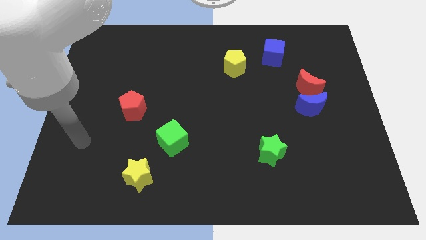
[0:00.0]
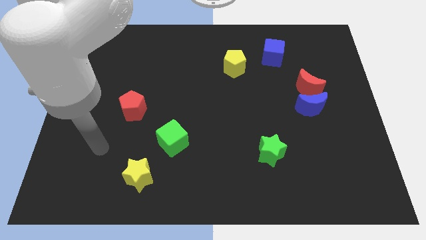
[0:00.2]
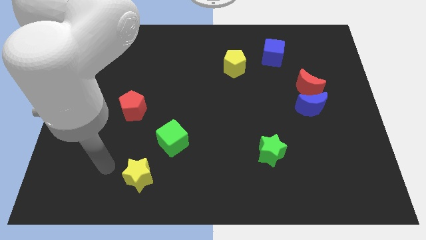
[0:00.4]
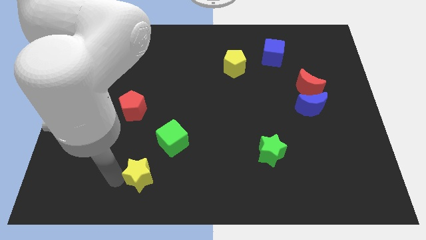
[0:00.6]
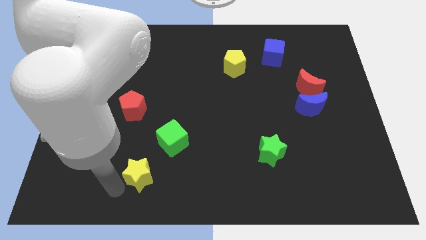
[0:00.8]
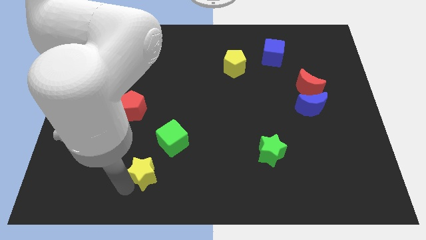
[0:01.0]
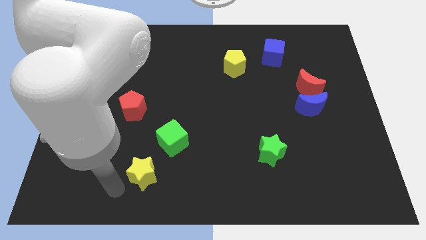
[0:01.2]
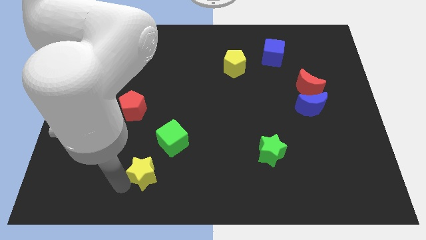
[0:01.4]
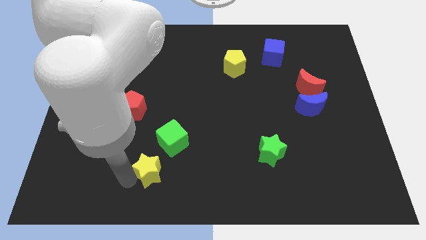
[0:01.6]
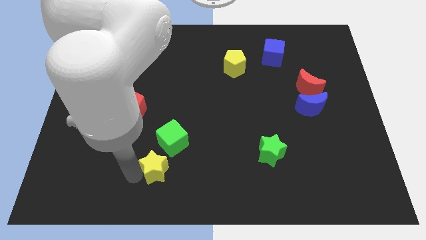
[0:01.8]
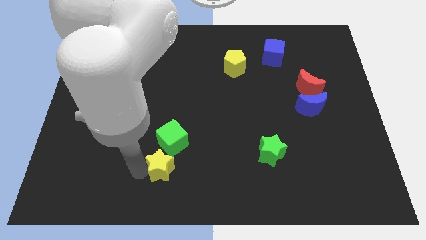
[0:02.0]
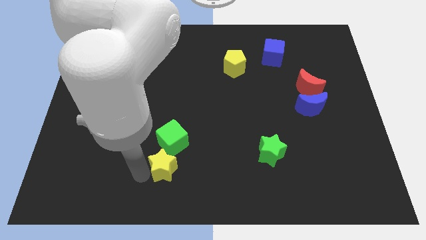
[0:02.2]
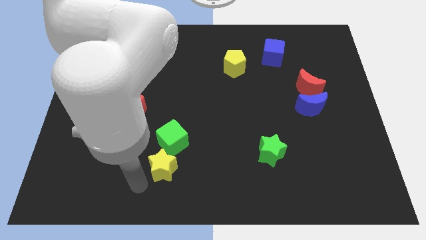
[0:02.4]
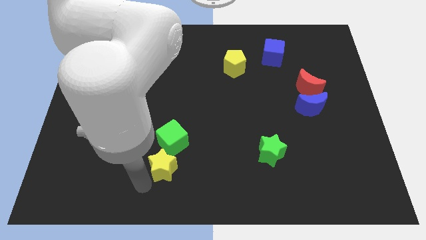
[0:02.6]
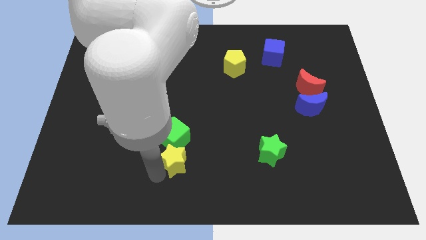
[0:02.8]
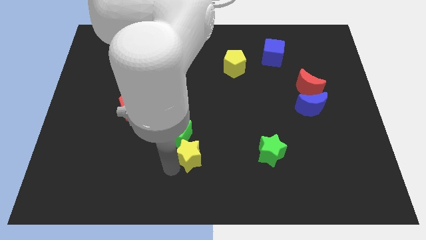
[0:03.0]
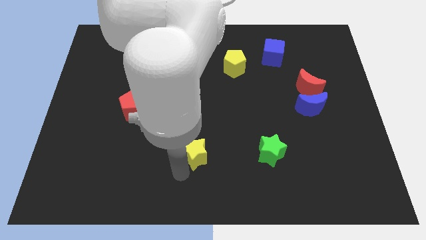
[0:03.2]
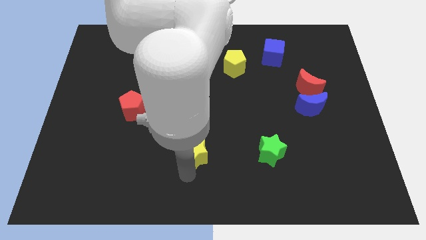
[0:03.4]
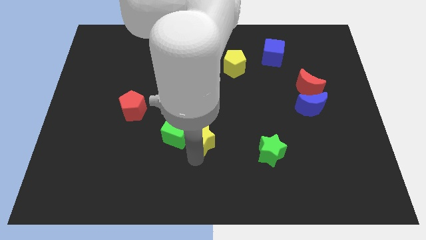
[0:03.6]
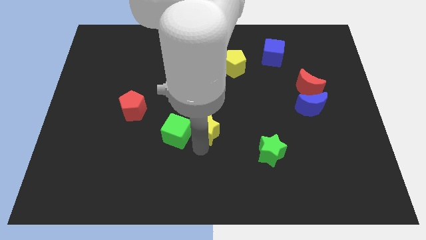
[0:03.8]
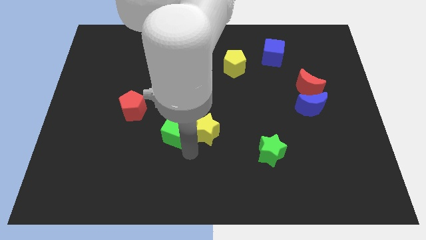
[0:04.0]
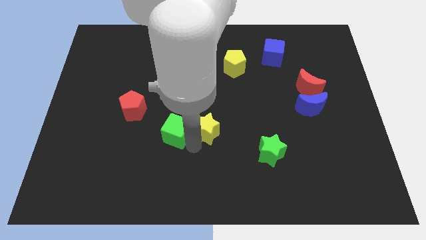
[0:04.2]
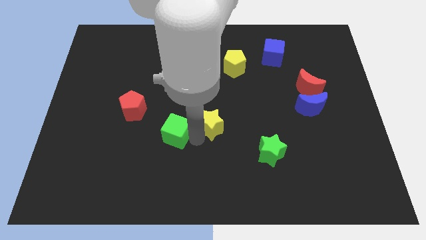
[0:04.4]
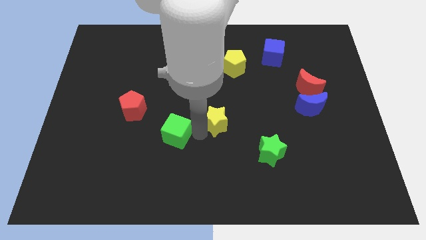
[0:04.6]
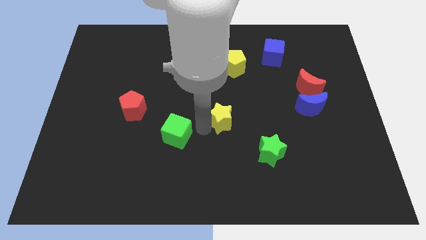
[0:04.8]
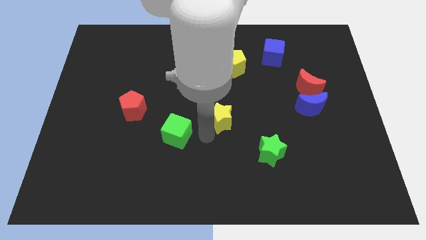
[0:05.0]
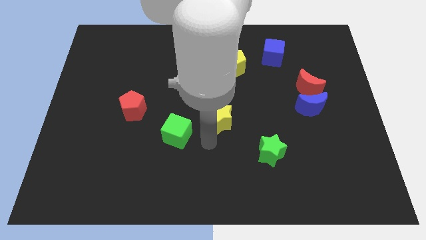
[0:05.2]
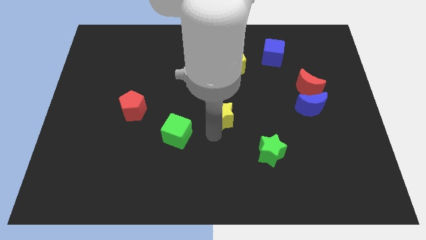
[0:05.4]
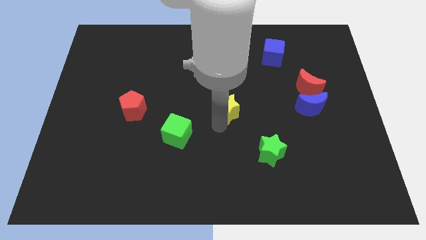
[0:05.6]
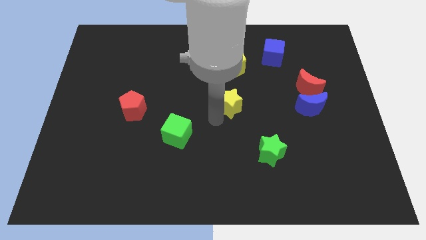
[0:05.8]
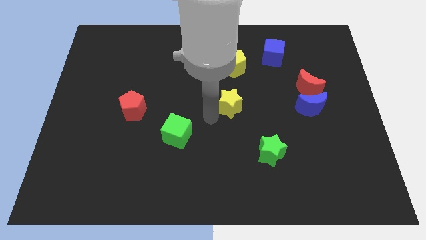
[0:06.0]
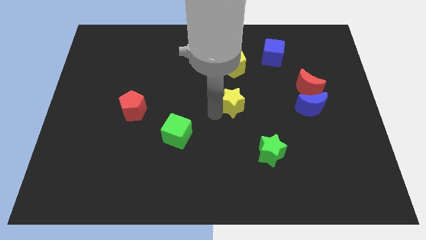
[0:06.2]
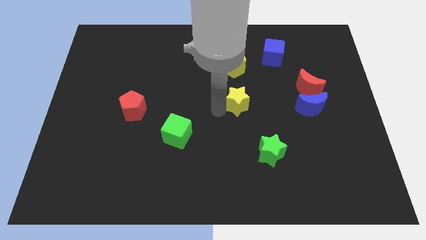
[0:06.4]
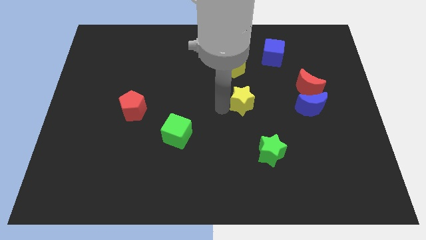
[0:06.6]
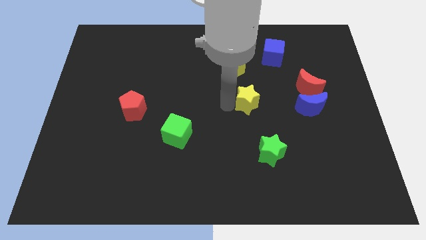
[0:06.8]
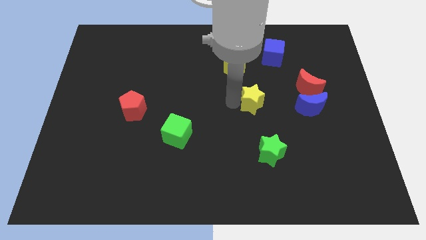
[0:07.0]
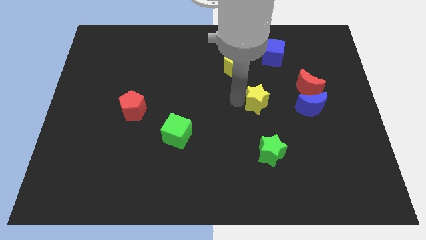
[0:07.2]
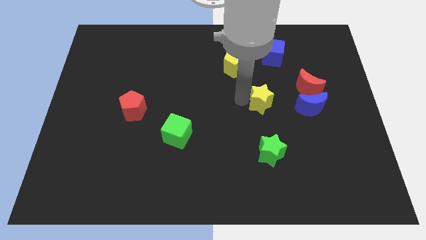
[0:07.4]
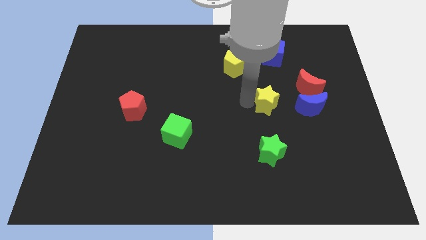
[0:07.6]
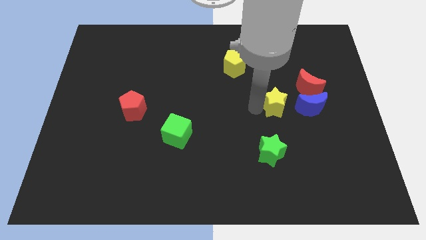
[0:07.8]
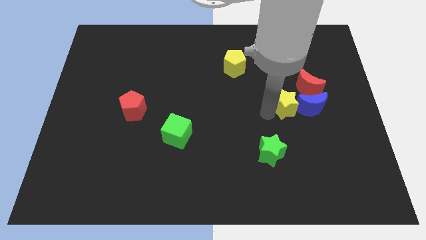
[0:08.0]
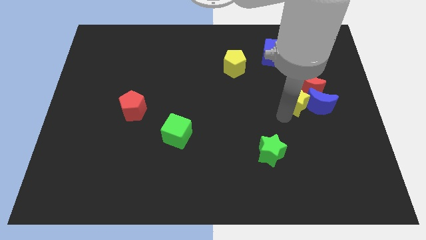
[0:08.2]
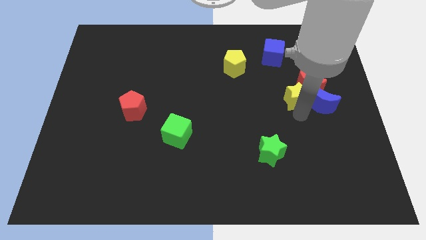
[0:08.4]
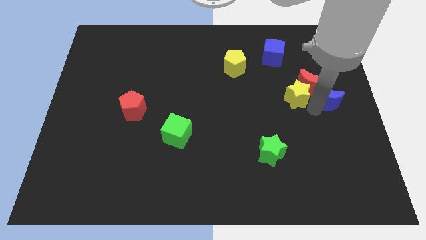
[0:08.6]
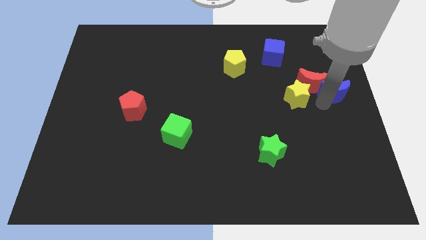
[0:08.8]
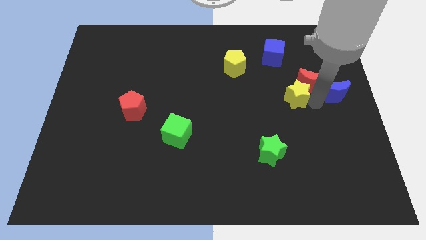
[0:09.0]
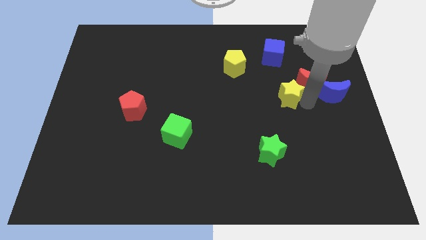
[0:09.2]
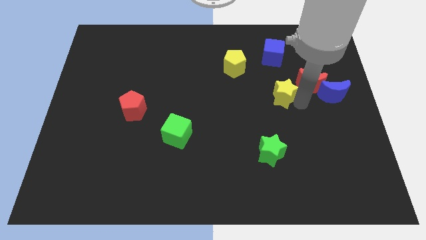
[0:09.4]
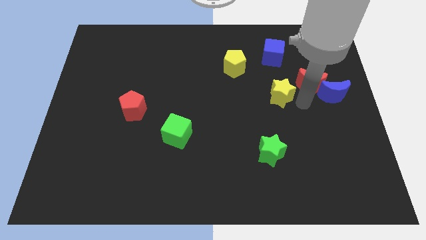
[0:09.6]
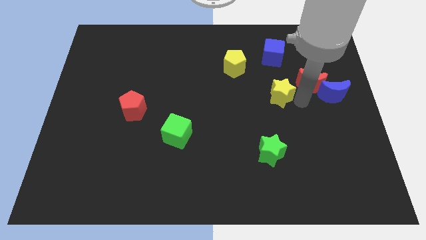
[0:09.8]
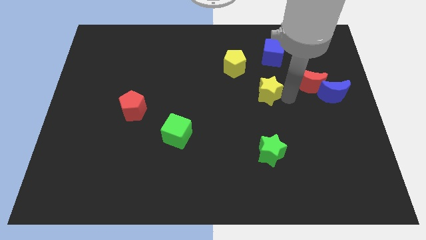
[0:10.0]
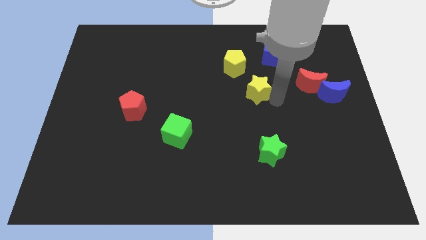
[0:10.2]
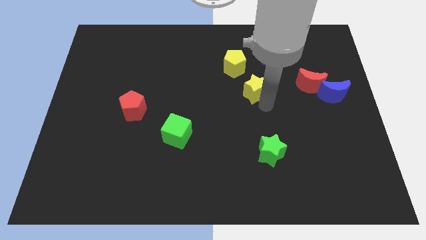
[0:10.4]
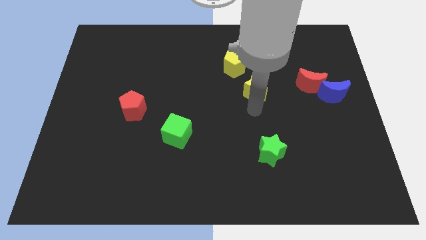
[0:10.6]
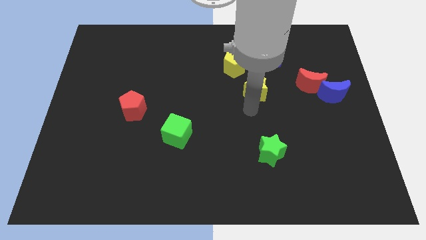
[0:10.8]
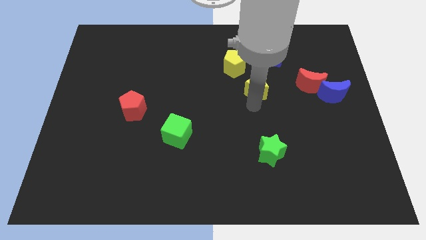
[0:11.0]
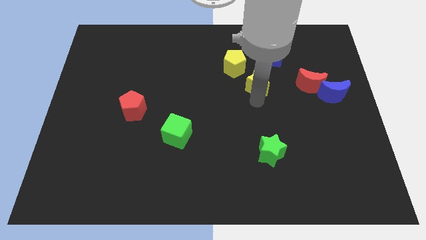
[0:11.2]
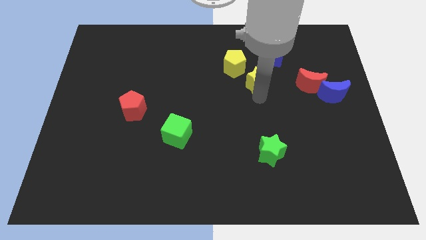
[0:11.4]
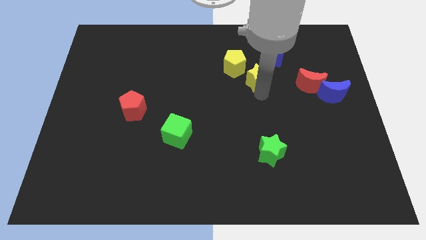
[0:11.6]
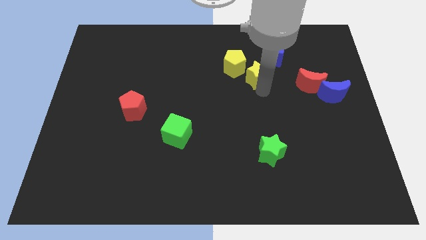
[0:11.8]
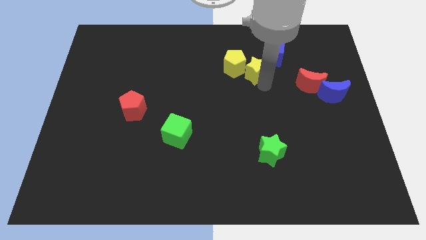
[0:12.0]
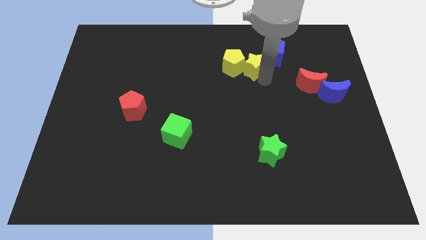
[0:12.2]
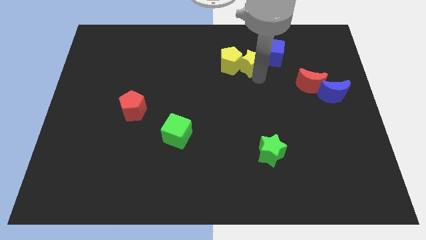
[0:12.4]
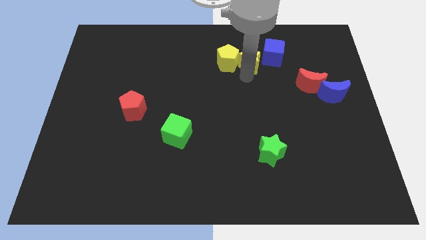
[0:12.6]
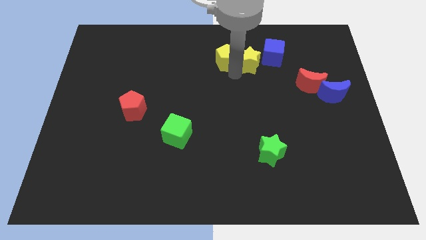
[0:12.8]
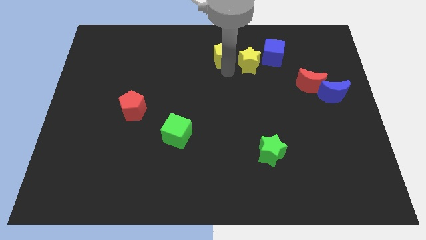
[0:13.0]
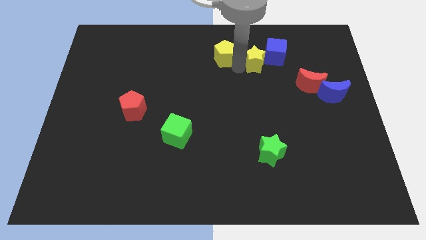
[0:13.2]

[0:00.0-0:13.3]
push the yellow star to the blue cube
